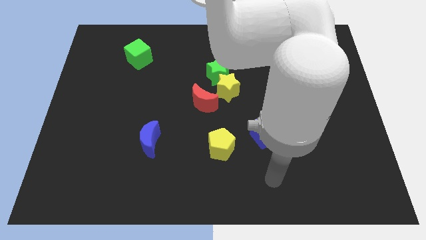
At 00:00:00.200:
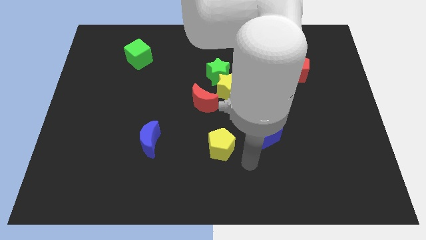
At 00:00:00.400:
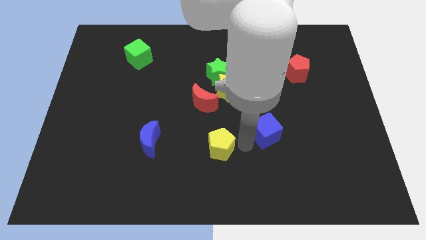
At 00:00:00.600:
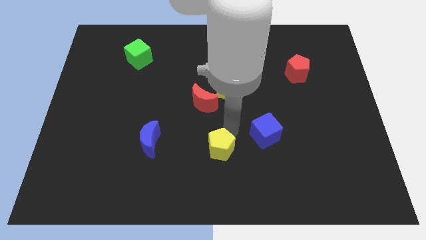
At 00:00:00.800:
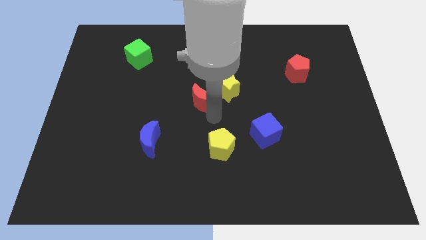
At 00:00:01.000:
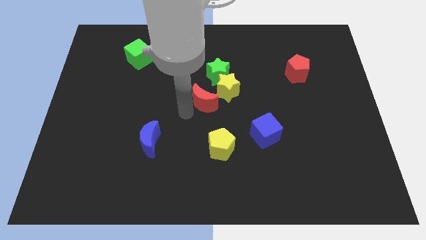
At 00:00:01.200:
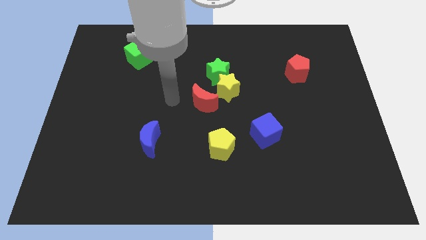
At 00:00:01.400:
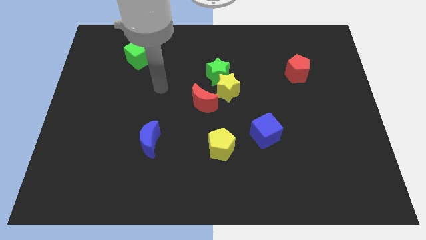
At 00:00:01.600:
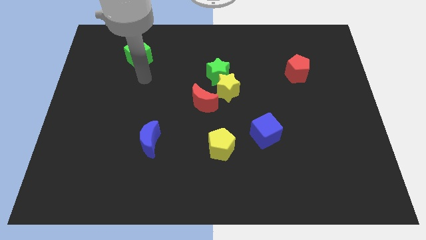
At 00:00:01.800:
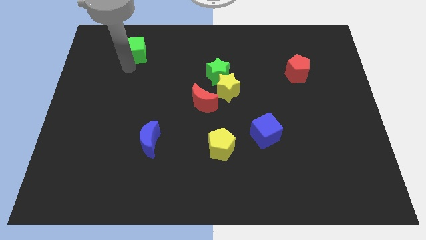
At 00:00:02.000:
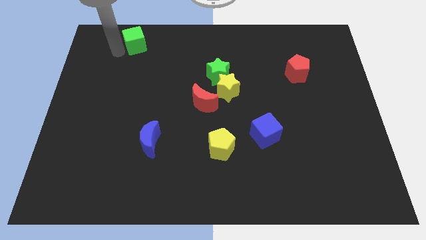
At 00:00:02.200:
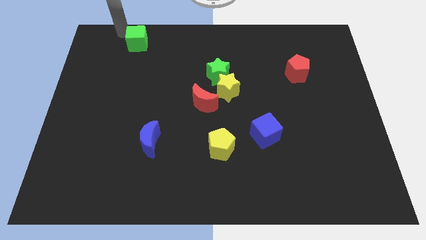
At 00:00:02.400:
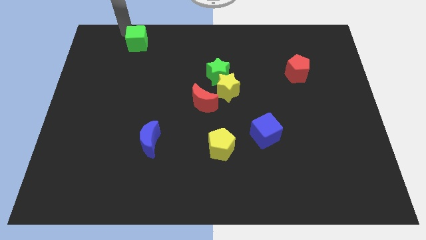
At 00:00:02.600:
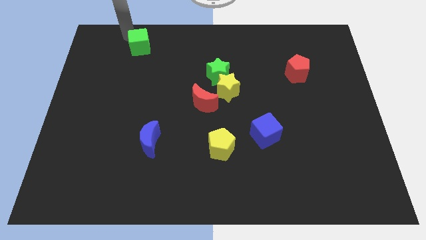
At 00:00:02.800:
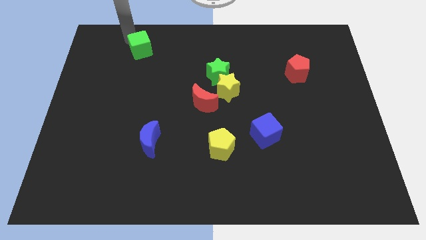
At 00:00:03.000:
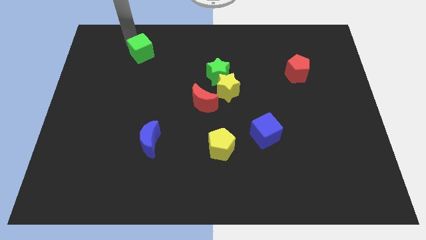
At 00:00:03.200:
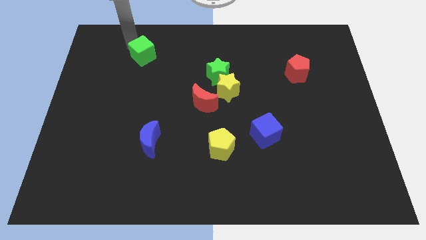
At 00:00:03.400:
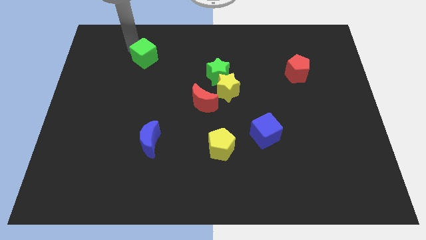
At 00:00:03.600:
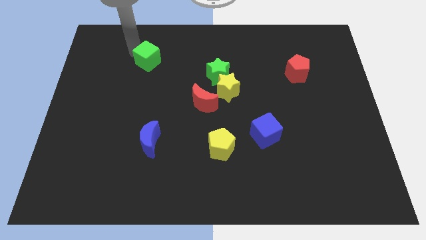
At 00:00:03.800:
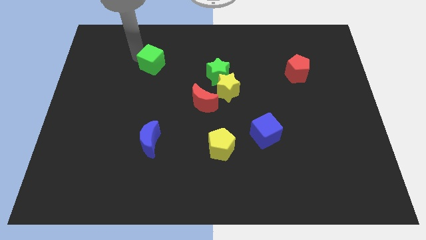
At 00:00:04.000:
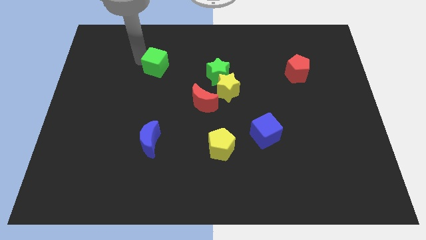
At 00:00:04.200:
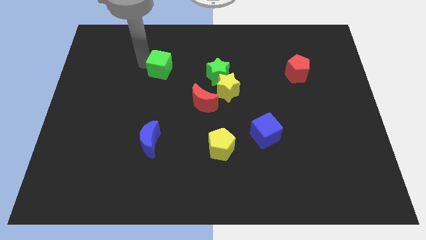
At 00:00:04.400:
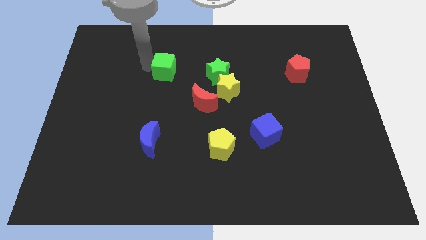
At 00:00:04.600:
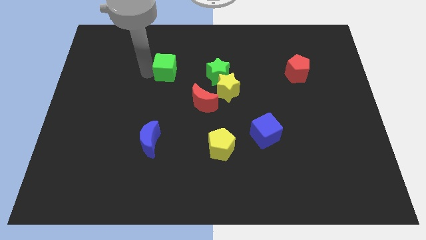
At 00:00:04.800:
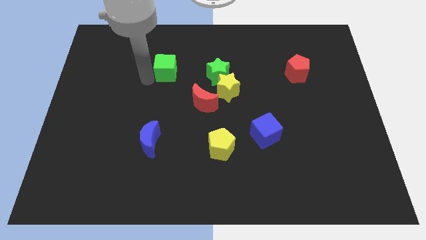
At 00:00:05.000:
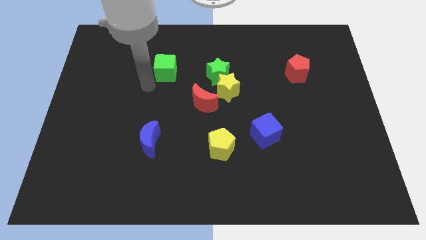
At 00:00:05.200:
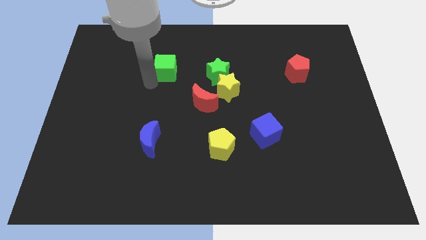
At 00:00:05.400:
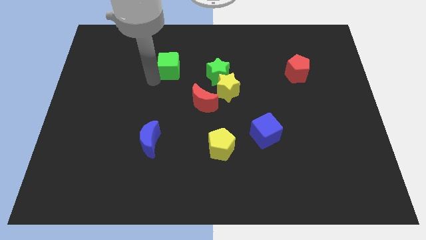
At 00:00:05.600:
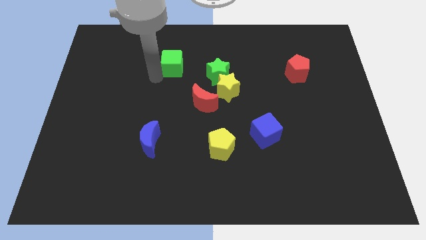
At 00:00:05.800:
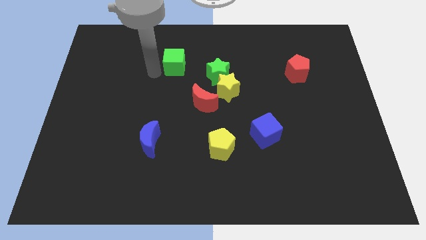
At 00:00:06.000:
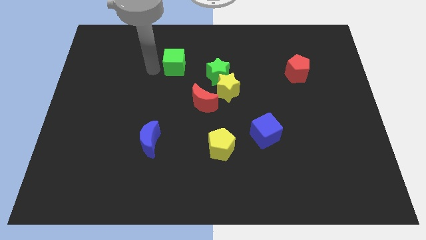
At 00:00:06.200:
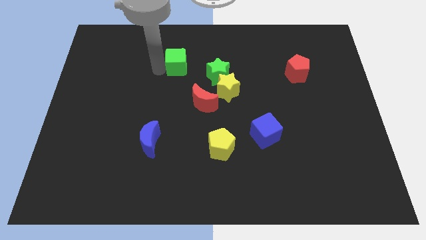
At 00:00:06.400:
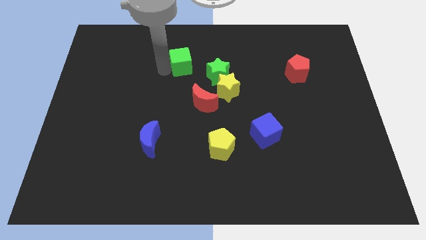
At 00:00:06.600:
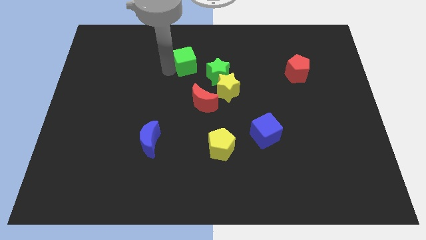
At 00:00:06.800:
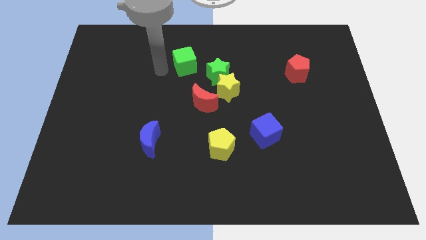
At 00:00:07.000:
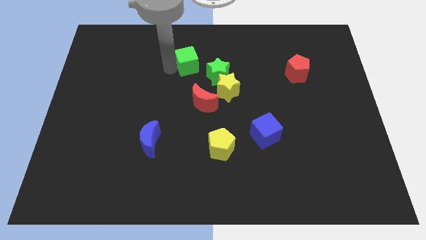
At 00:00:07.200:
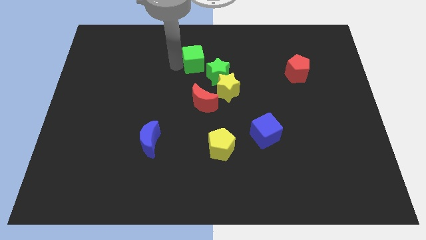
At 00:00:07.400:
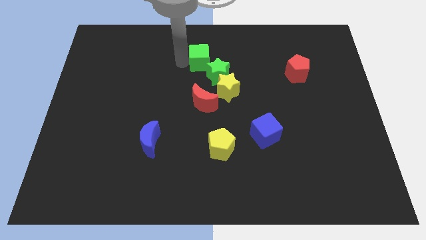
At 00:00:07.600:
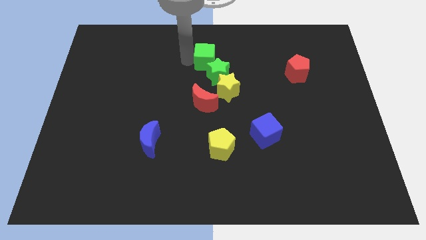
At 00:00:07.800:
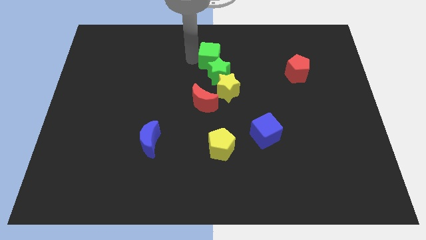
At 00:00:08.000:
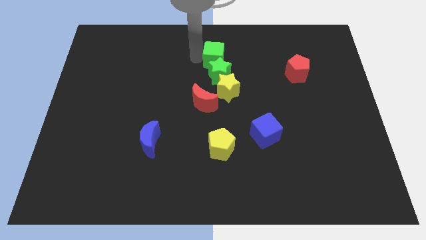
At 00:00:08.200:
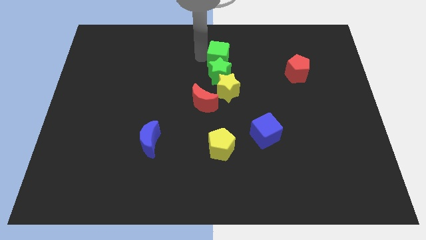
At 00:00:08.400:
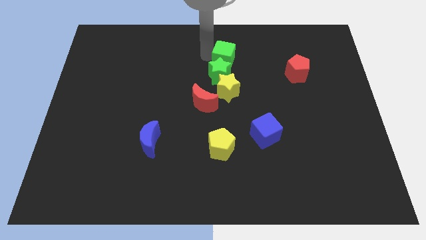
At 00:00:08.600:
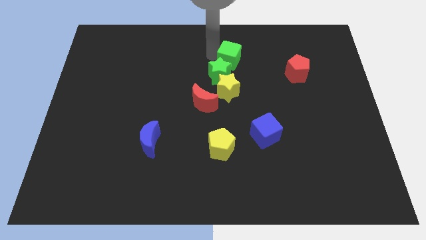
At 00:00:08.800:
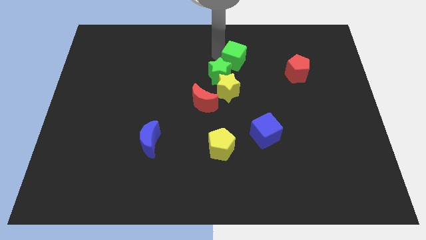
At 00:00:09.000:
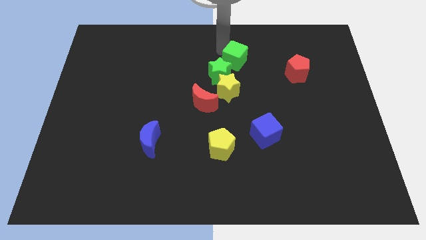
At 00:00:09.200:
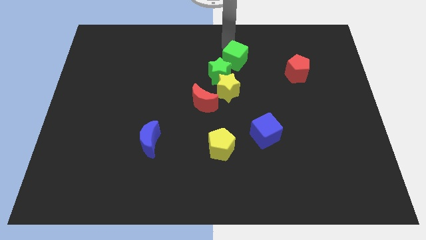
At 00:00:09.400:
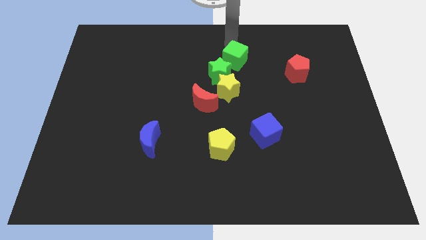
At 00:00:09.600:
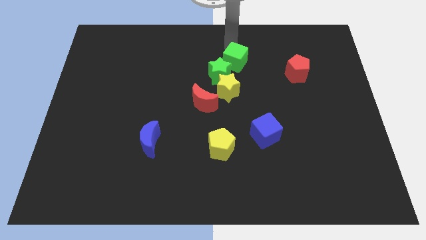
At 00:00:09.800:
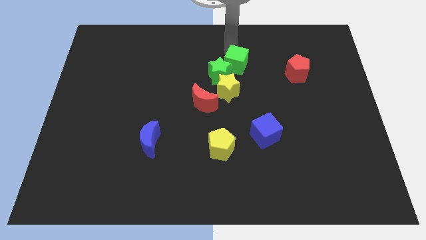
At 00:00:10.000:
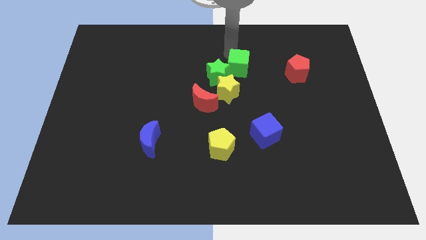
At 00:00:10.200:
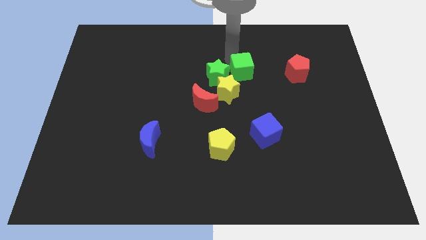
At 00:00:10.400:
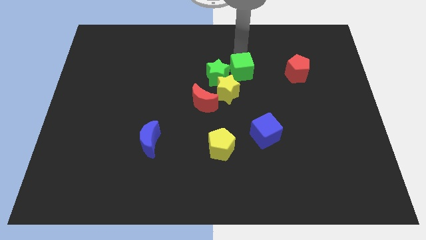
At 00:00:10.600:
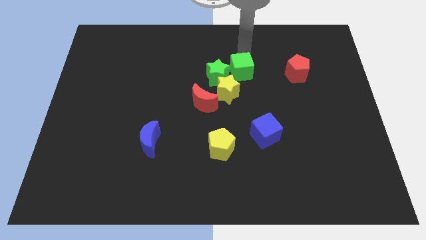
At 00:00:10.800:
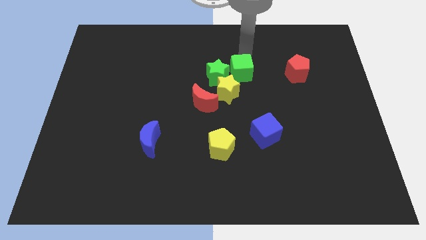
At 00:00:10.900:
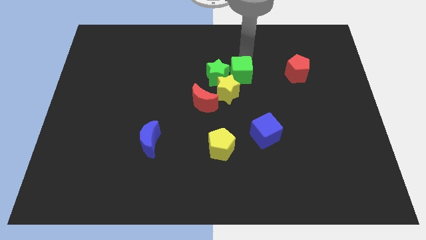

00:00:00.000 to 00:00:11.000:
move the green cube diagonally down and to the right of the green star

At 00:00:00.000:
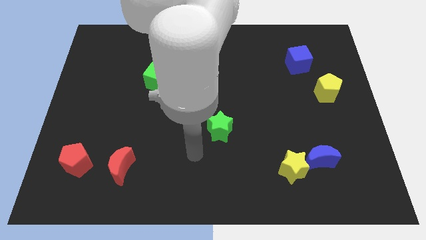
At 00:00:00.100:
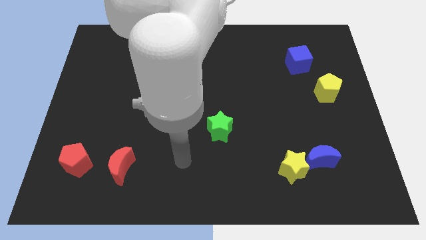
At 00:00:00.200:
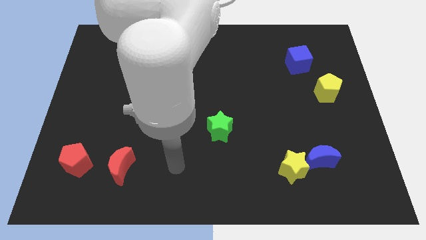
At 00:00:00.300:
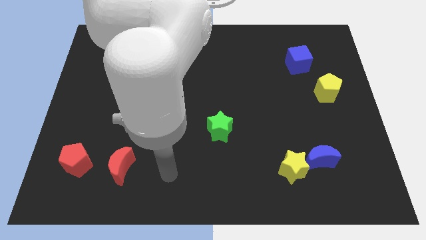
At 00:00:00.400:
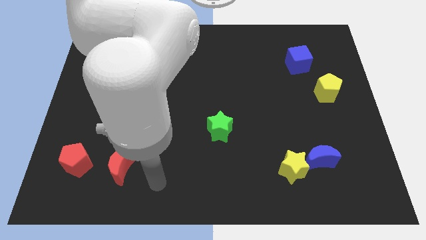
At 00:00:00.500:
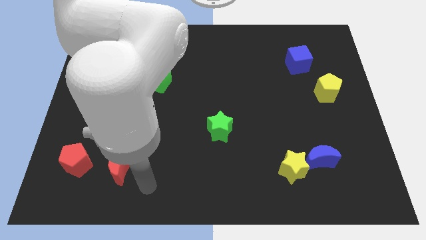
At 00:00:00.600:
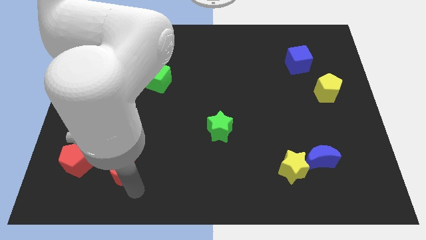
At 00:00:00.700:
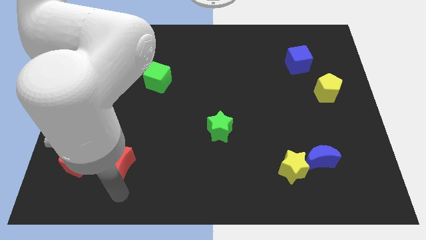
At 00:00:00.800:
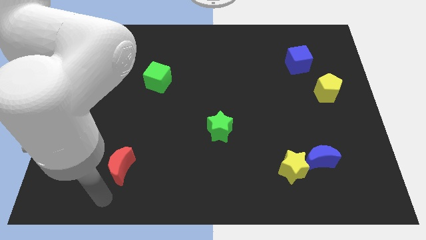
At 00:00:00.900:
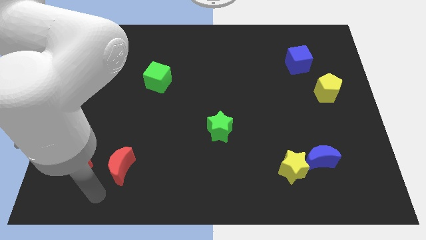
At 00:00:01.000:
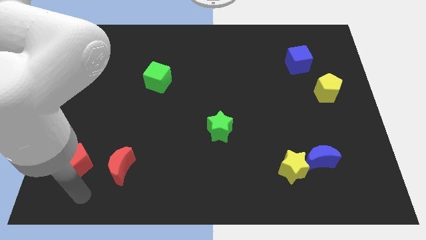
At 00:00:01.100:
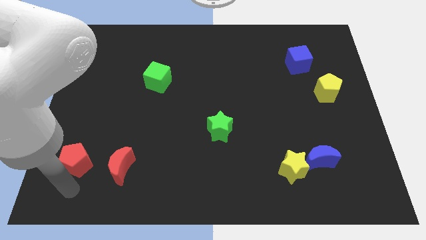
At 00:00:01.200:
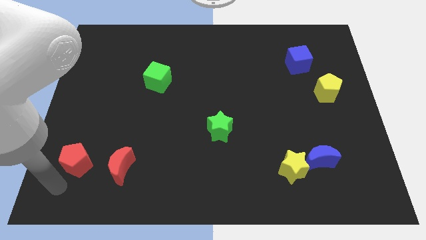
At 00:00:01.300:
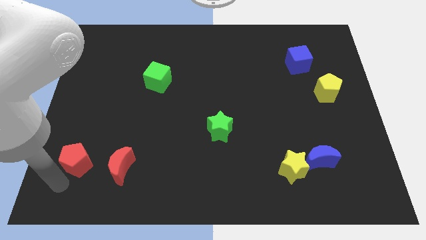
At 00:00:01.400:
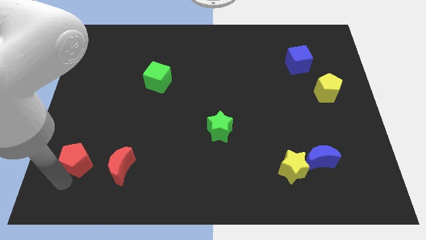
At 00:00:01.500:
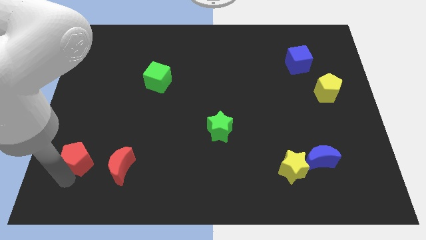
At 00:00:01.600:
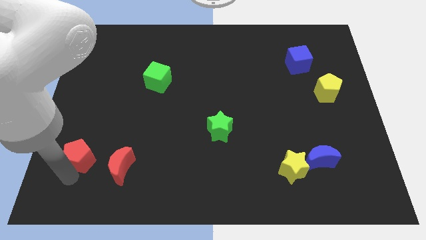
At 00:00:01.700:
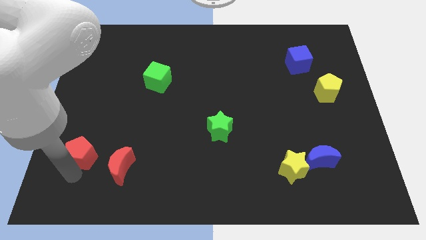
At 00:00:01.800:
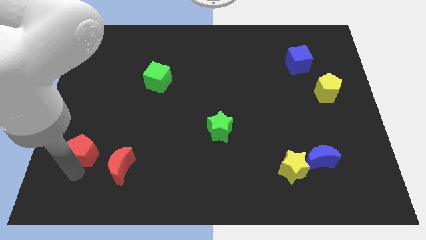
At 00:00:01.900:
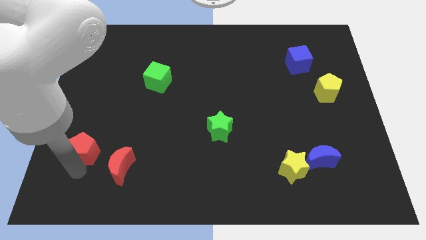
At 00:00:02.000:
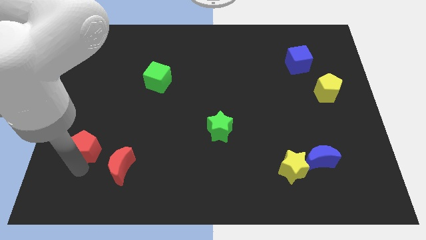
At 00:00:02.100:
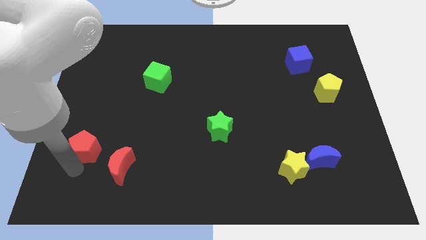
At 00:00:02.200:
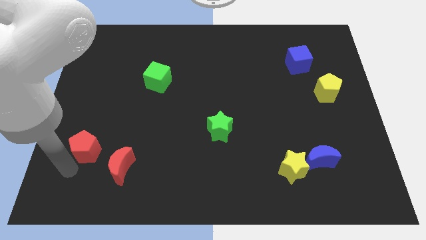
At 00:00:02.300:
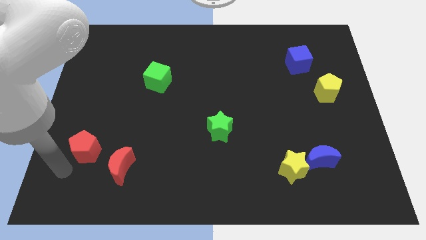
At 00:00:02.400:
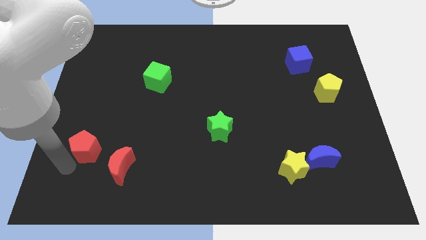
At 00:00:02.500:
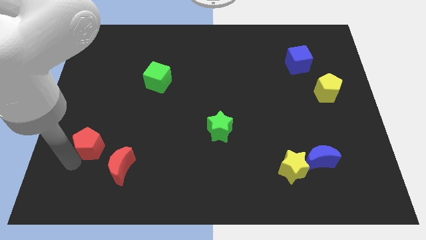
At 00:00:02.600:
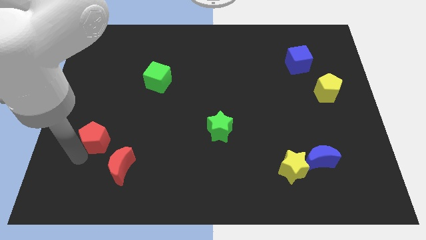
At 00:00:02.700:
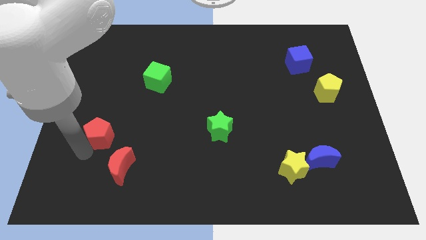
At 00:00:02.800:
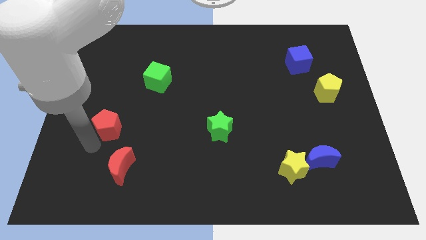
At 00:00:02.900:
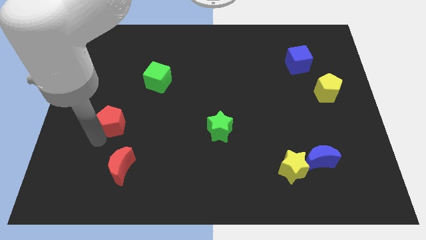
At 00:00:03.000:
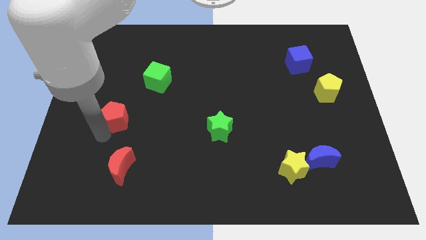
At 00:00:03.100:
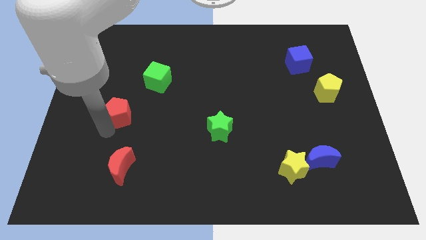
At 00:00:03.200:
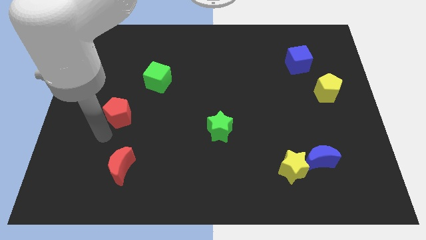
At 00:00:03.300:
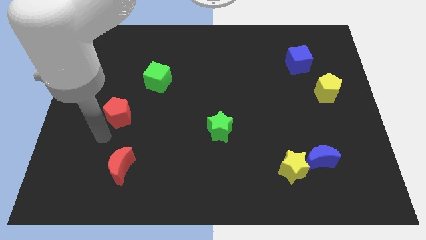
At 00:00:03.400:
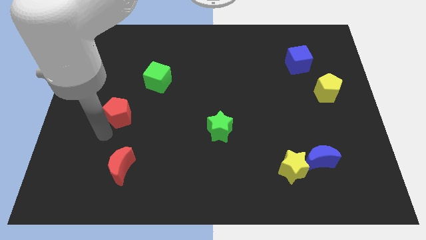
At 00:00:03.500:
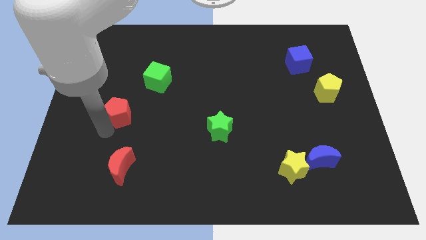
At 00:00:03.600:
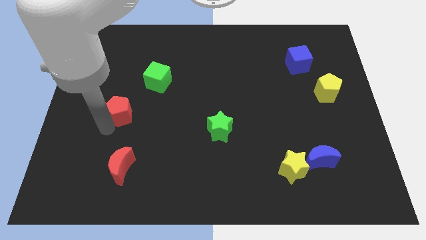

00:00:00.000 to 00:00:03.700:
slide the red pentagon to the bottom left of the green cube
